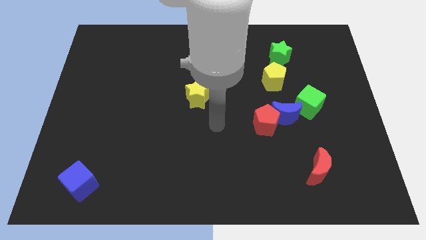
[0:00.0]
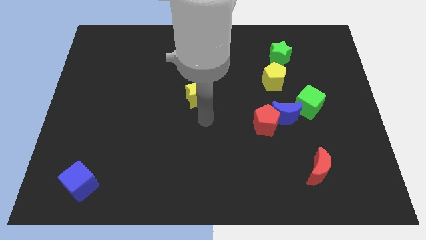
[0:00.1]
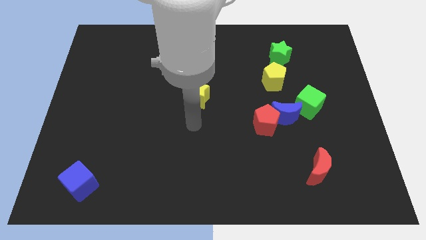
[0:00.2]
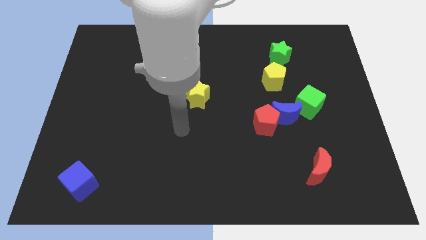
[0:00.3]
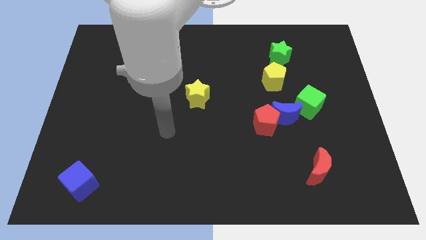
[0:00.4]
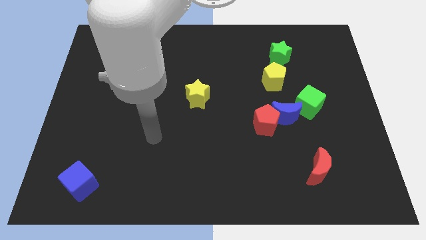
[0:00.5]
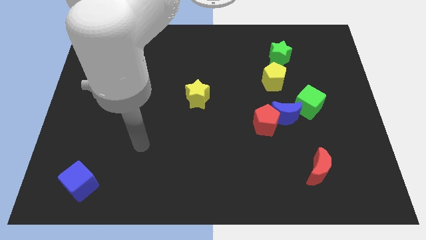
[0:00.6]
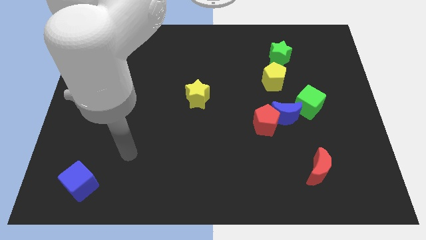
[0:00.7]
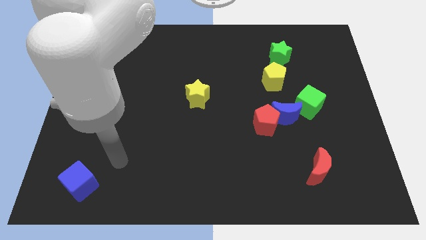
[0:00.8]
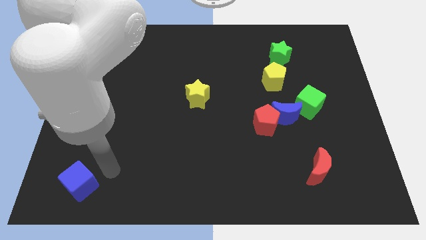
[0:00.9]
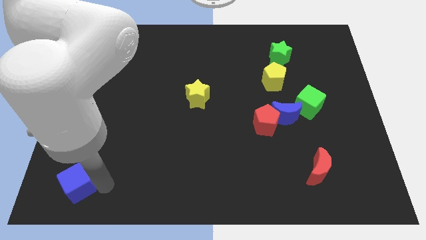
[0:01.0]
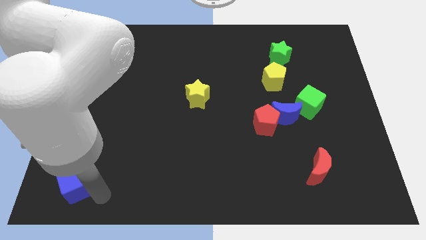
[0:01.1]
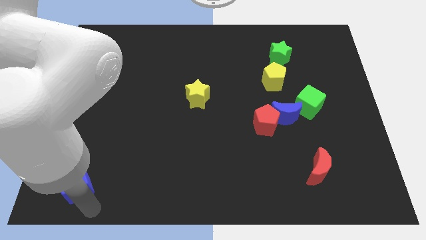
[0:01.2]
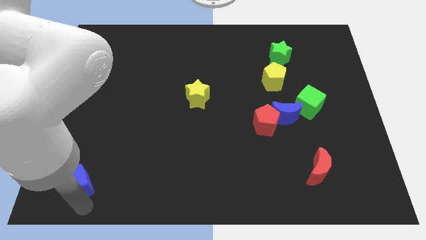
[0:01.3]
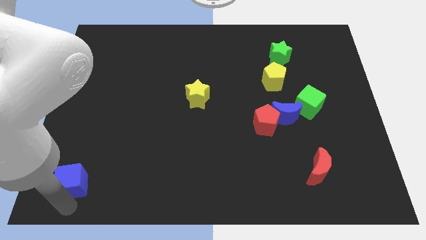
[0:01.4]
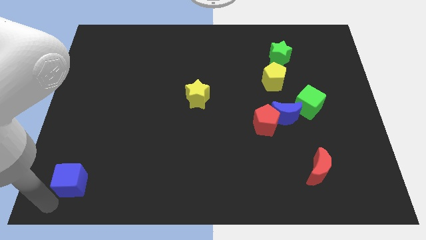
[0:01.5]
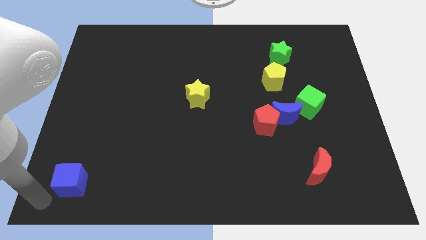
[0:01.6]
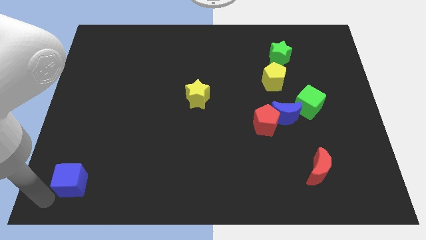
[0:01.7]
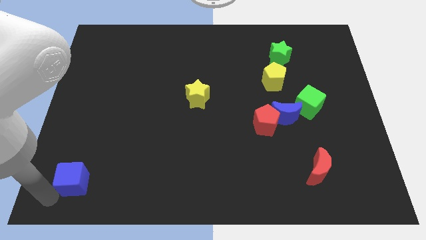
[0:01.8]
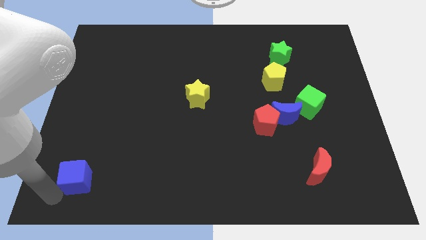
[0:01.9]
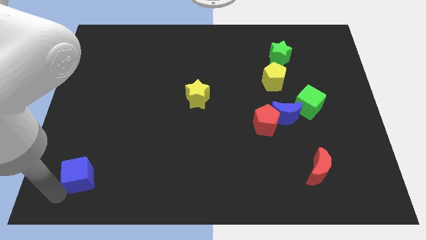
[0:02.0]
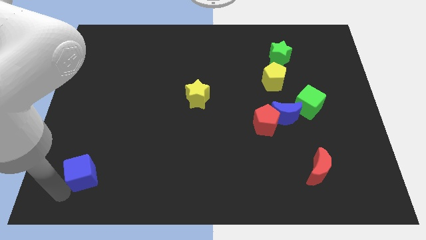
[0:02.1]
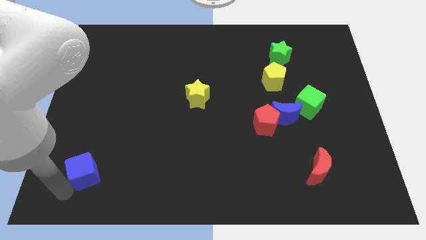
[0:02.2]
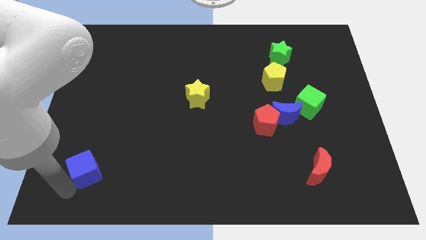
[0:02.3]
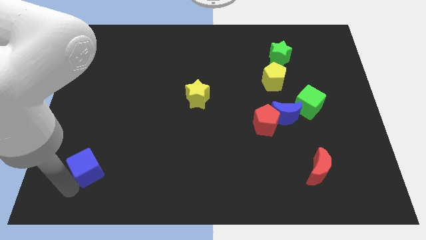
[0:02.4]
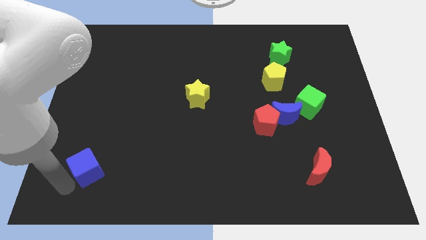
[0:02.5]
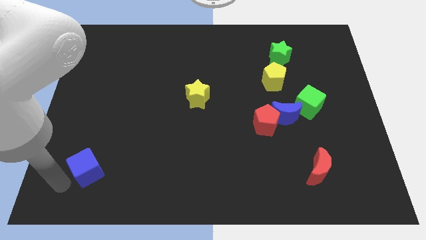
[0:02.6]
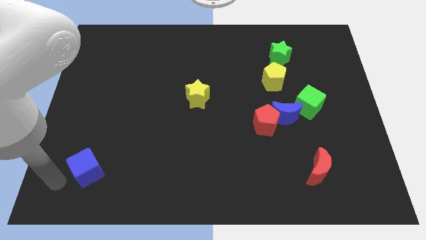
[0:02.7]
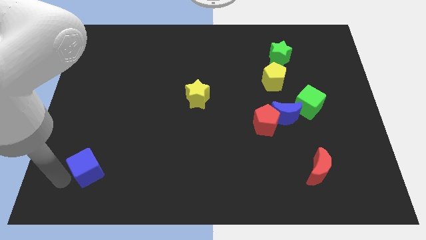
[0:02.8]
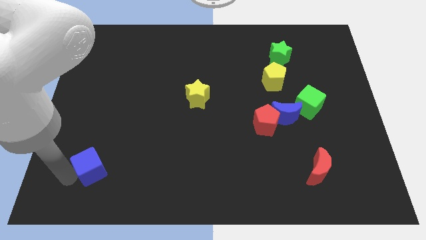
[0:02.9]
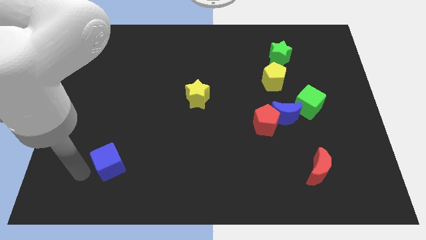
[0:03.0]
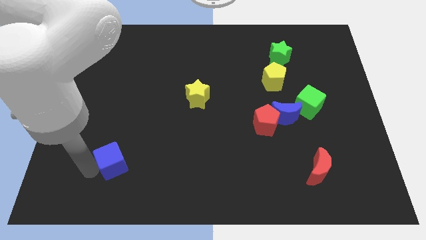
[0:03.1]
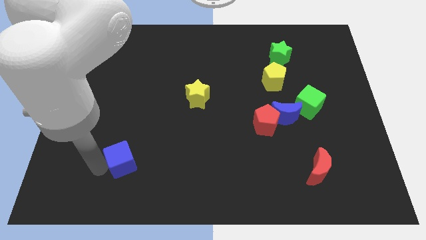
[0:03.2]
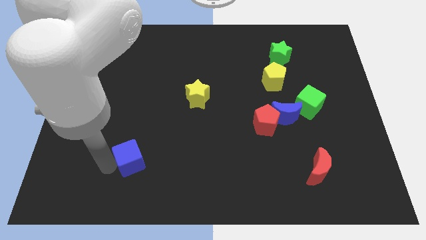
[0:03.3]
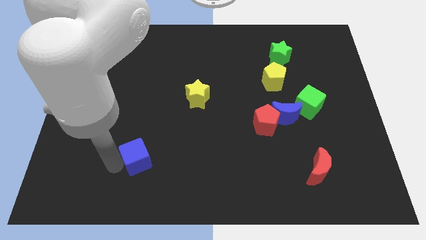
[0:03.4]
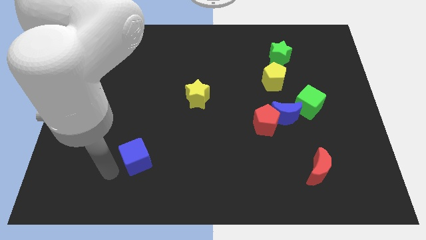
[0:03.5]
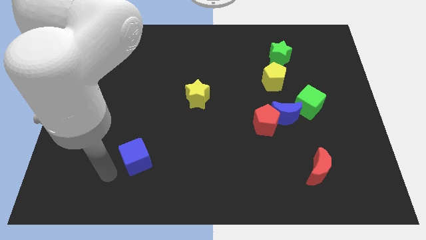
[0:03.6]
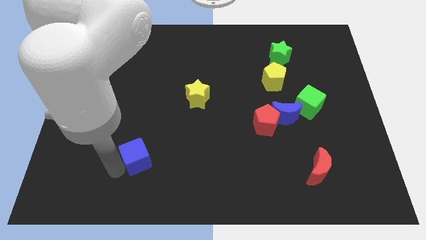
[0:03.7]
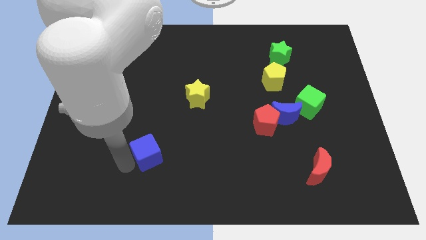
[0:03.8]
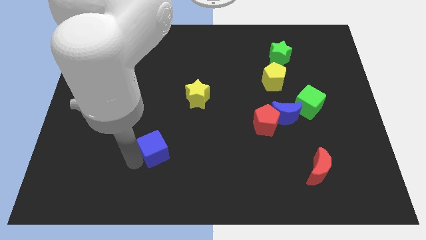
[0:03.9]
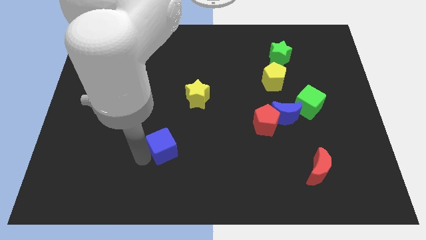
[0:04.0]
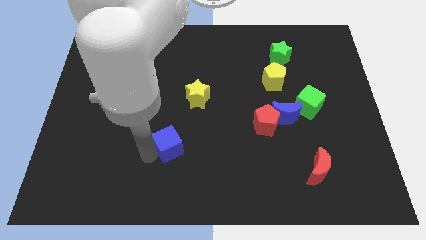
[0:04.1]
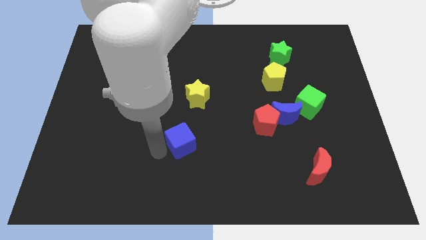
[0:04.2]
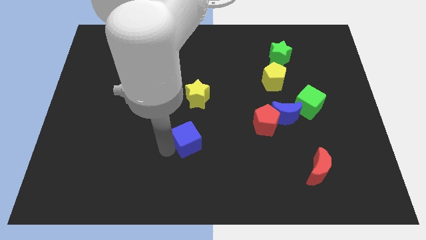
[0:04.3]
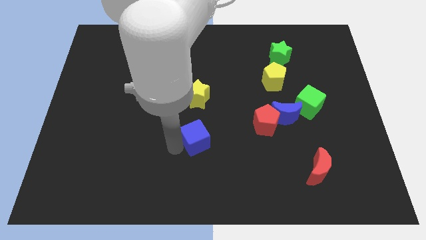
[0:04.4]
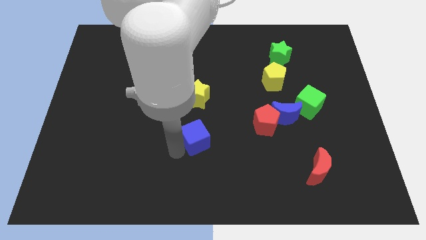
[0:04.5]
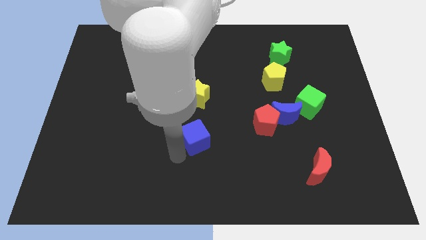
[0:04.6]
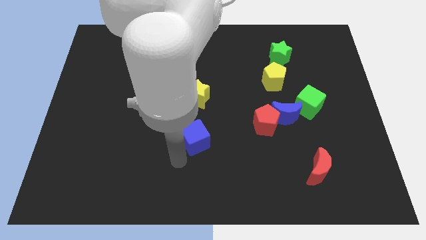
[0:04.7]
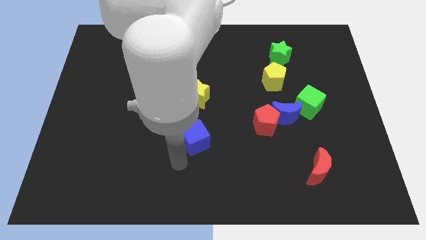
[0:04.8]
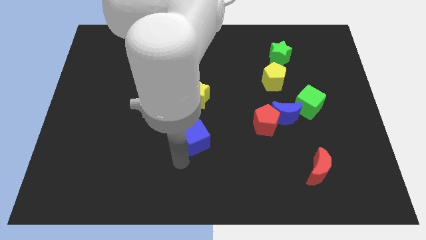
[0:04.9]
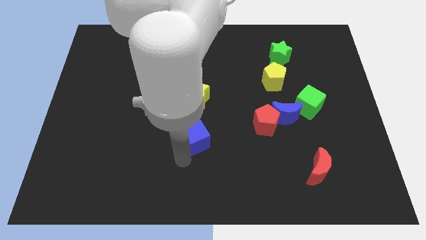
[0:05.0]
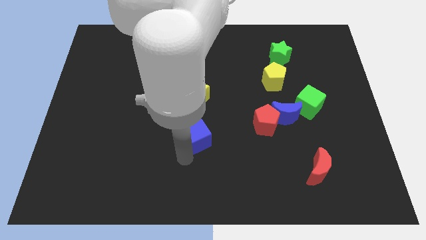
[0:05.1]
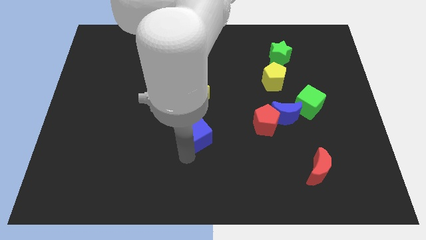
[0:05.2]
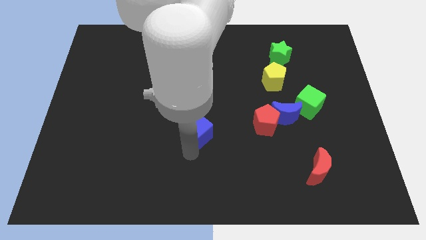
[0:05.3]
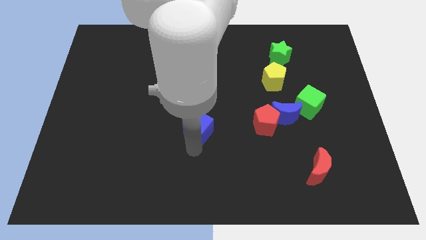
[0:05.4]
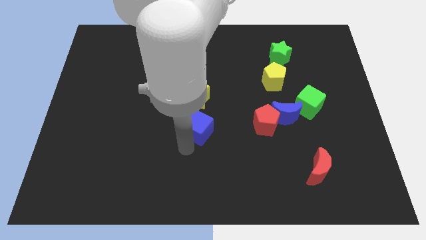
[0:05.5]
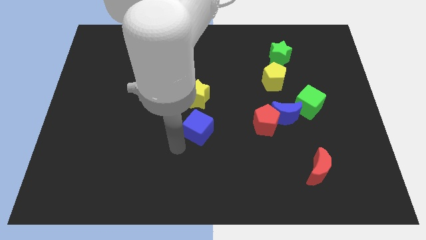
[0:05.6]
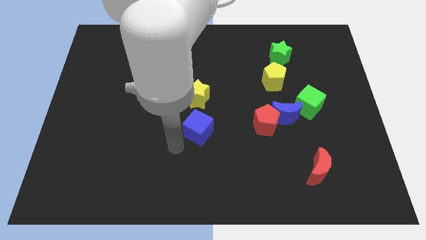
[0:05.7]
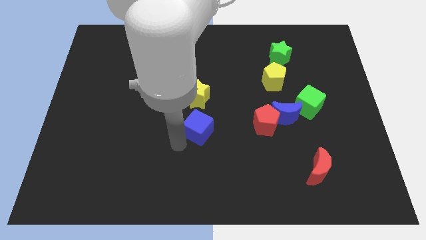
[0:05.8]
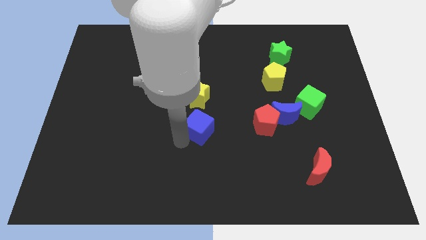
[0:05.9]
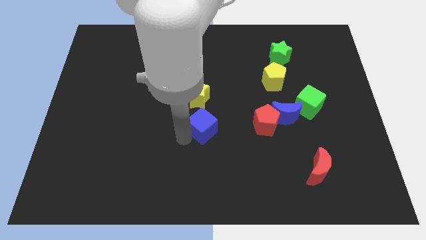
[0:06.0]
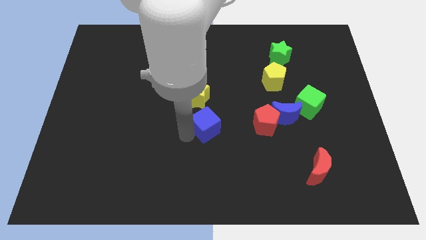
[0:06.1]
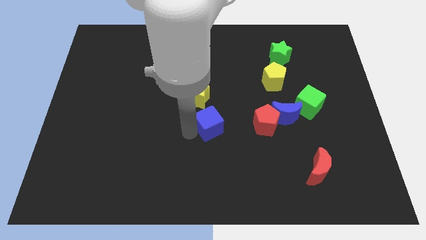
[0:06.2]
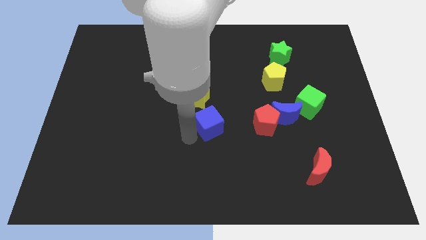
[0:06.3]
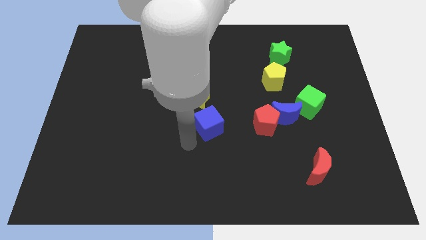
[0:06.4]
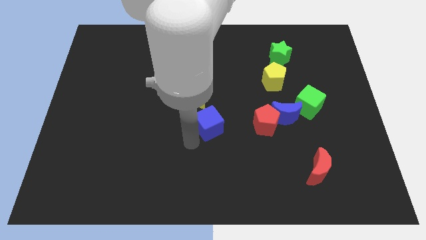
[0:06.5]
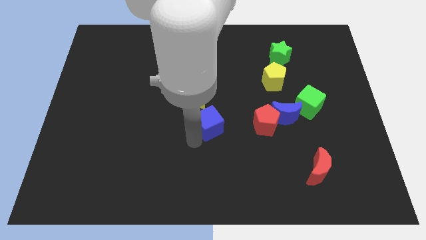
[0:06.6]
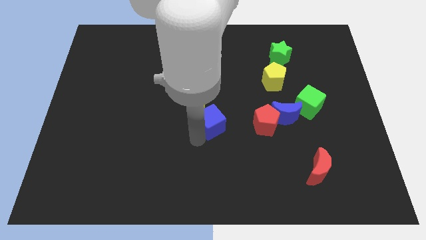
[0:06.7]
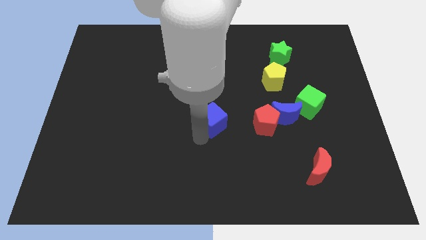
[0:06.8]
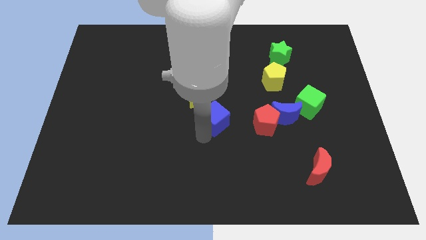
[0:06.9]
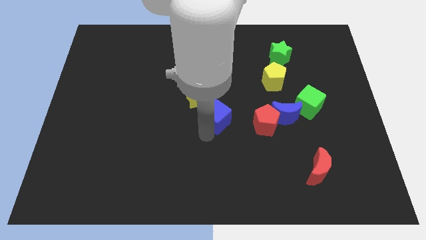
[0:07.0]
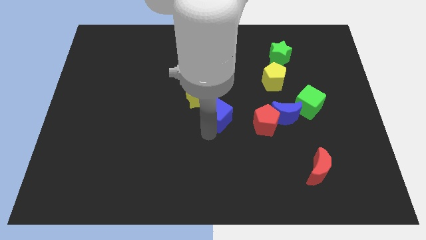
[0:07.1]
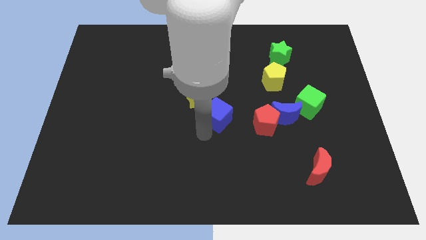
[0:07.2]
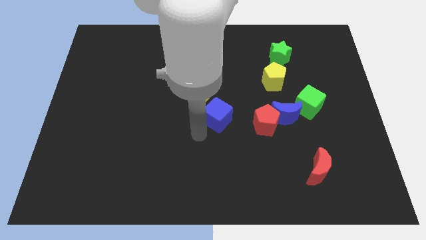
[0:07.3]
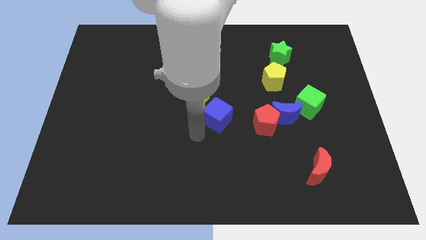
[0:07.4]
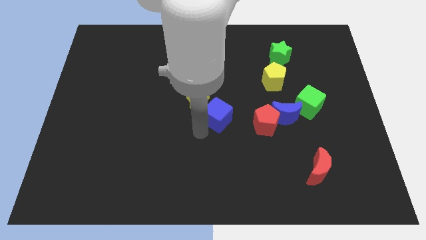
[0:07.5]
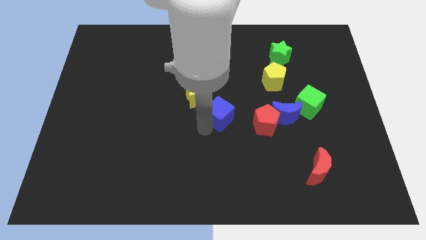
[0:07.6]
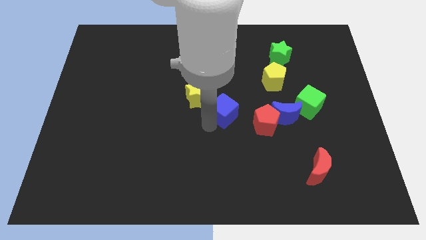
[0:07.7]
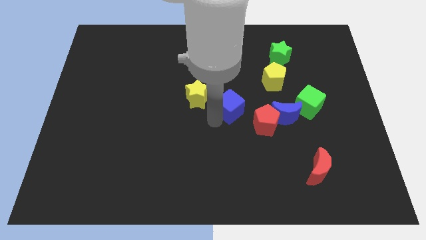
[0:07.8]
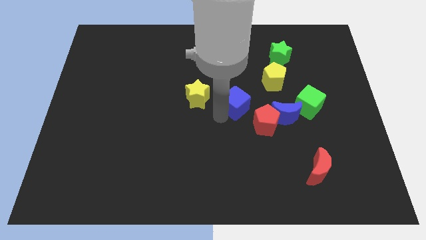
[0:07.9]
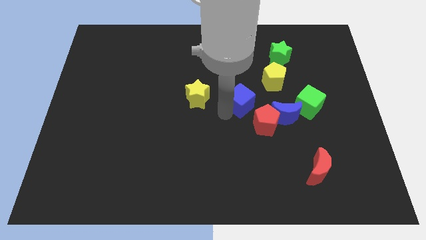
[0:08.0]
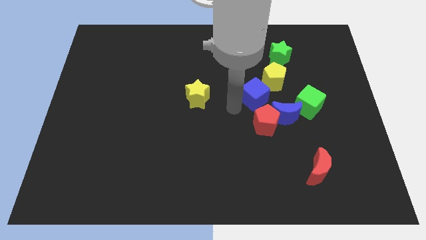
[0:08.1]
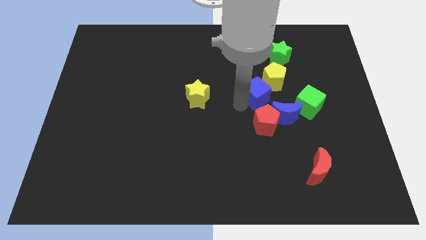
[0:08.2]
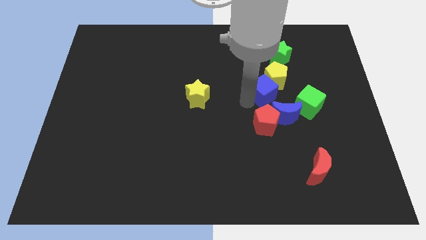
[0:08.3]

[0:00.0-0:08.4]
put the blue cube close to the yellow pentagon
